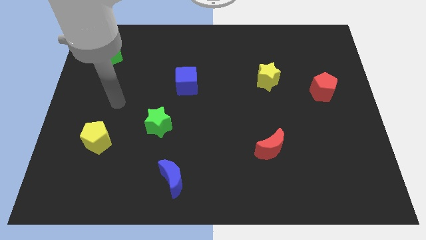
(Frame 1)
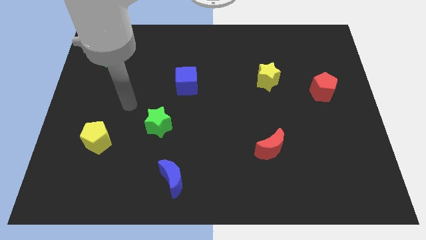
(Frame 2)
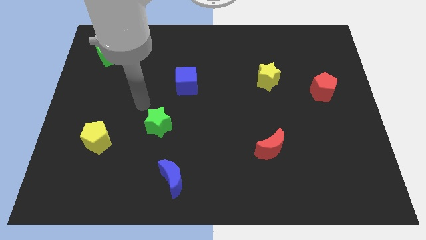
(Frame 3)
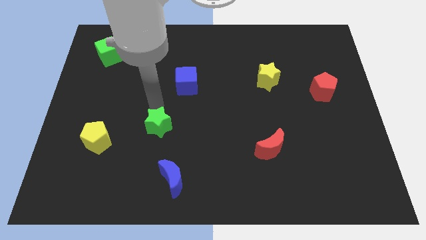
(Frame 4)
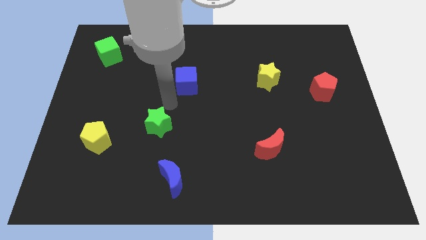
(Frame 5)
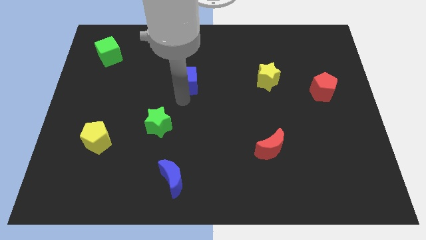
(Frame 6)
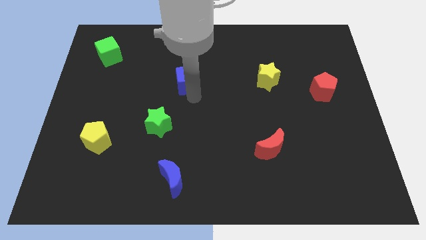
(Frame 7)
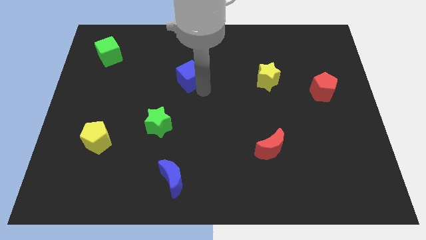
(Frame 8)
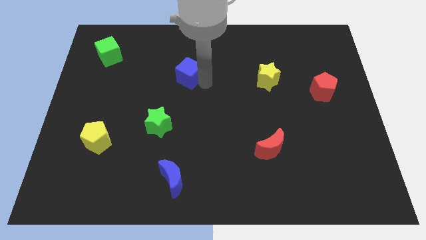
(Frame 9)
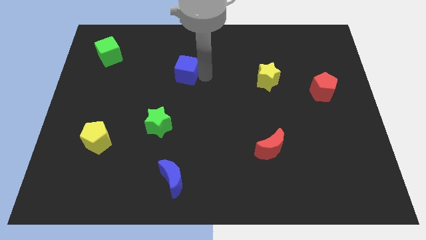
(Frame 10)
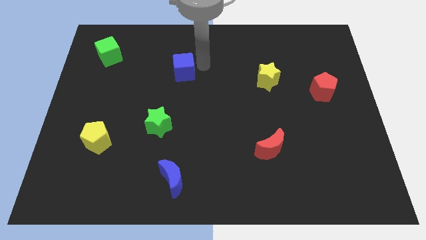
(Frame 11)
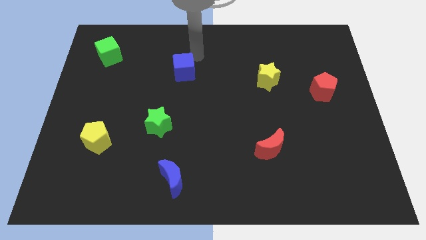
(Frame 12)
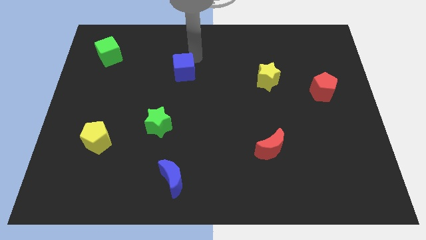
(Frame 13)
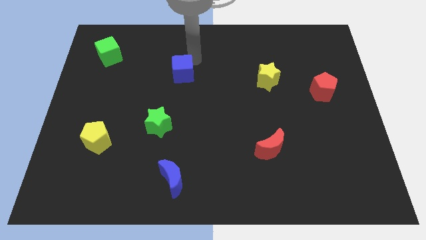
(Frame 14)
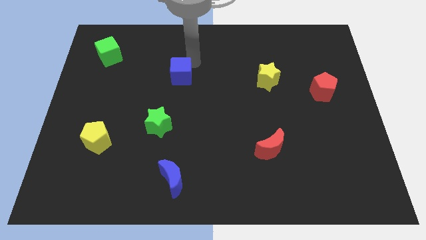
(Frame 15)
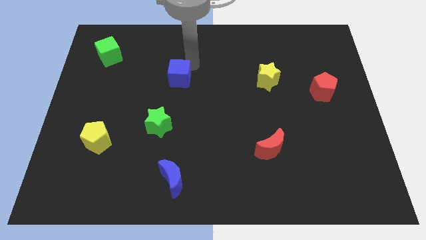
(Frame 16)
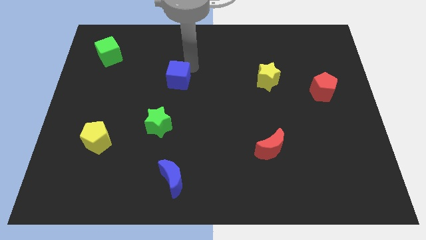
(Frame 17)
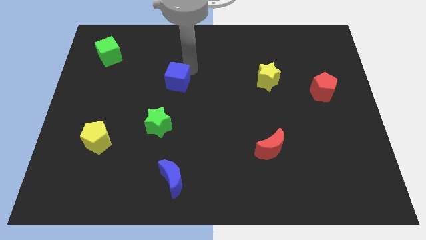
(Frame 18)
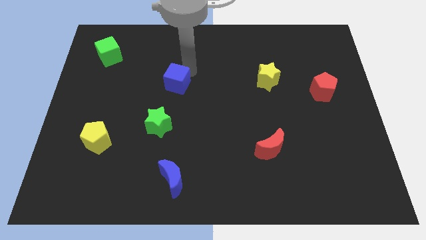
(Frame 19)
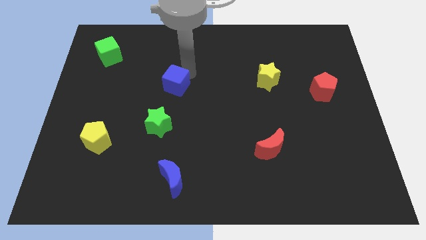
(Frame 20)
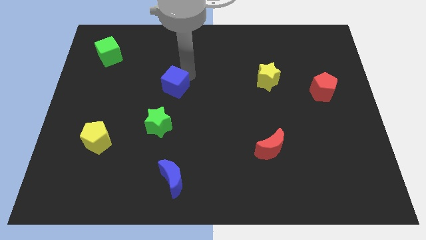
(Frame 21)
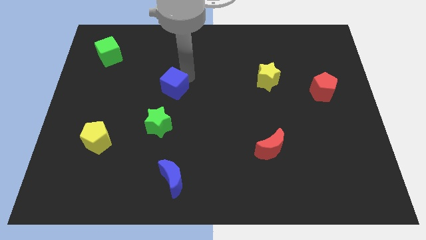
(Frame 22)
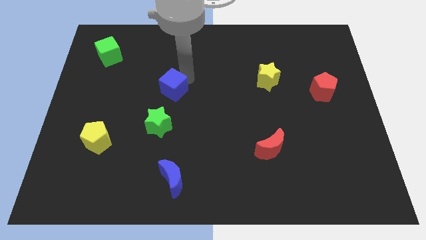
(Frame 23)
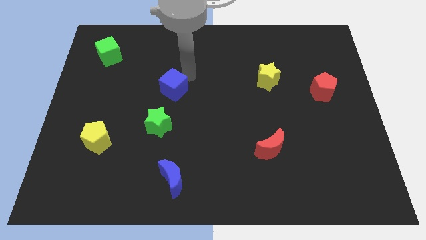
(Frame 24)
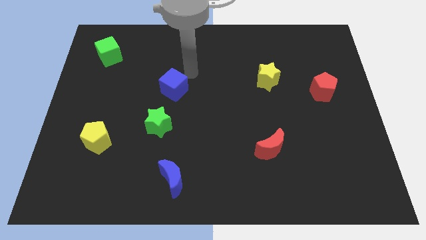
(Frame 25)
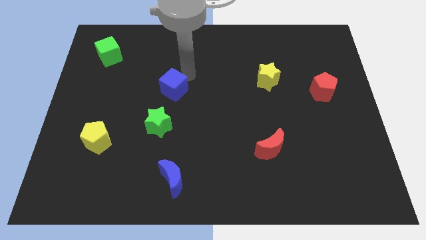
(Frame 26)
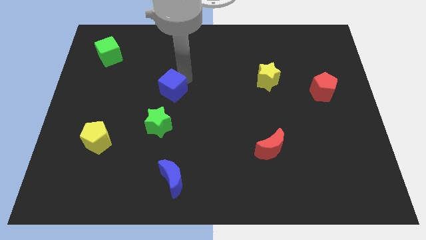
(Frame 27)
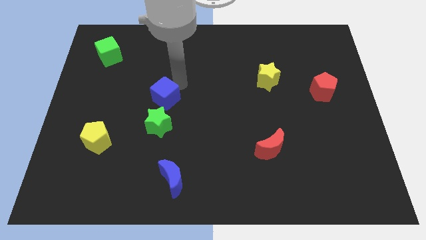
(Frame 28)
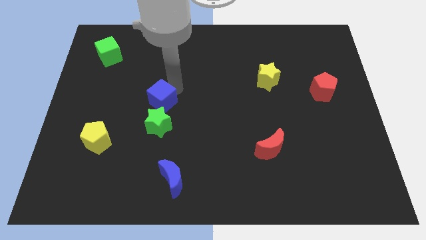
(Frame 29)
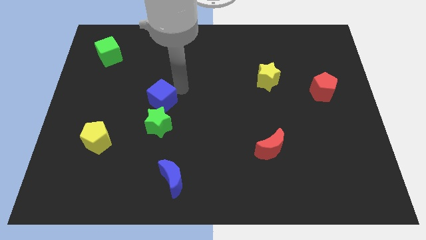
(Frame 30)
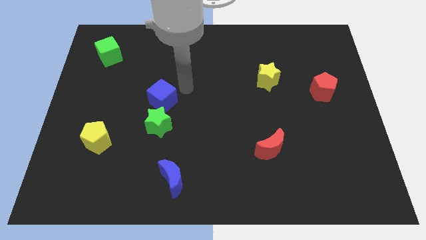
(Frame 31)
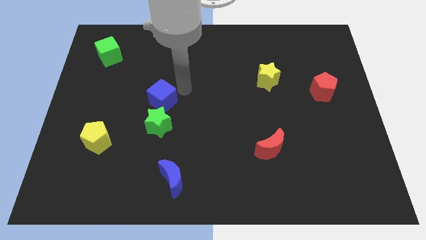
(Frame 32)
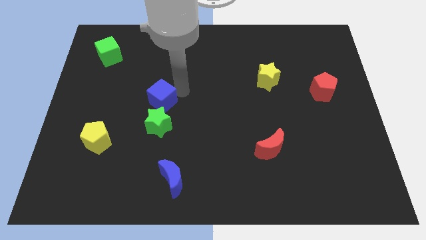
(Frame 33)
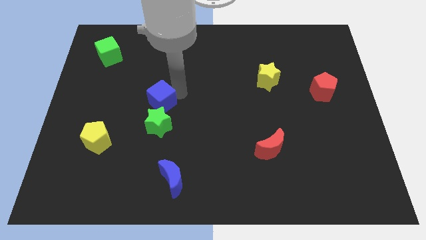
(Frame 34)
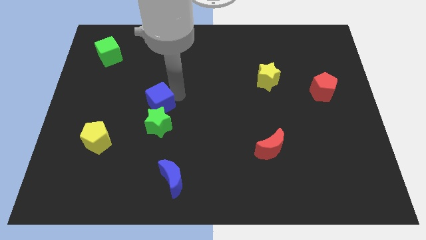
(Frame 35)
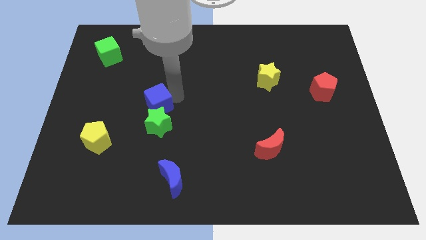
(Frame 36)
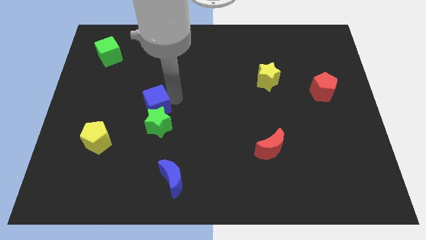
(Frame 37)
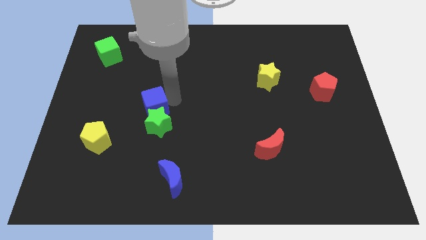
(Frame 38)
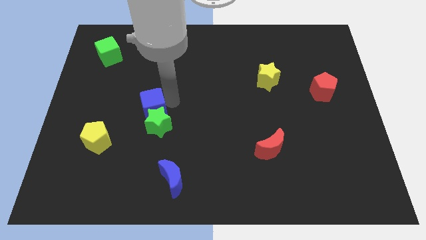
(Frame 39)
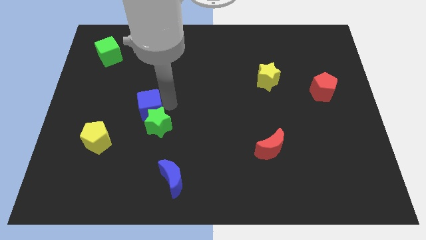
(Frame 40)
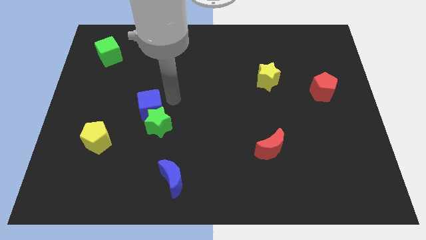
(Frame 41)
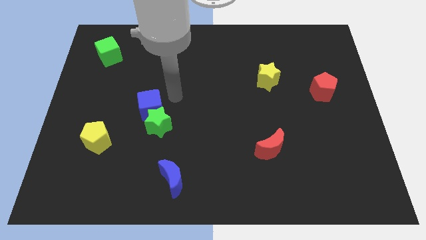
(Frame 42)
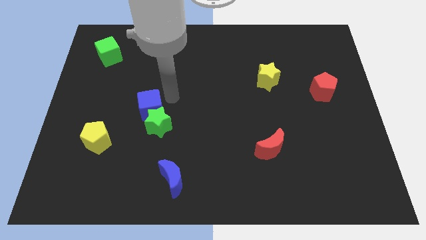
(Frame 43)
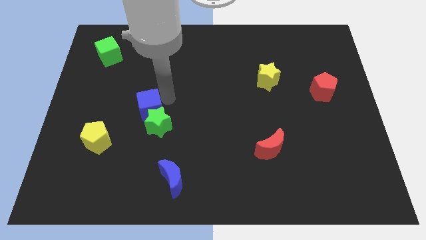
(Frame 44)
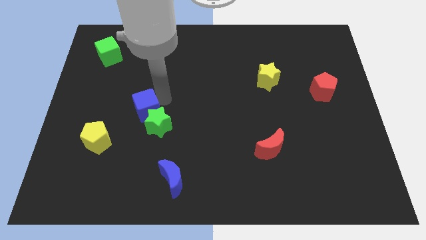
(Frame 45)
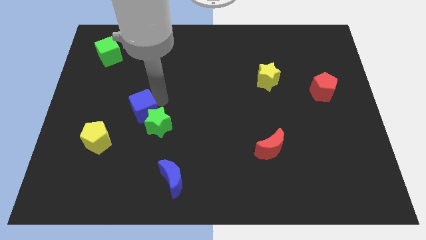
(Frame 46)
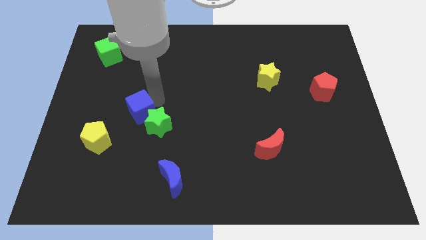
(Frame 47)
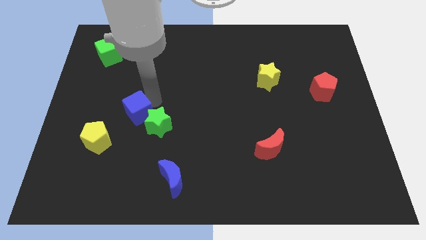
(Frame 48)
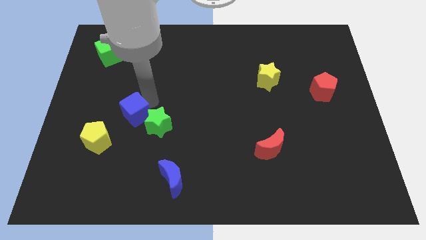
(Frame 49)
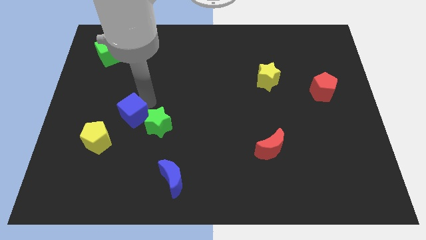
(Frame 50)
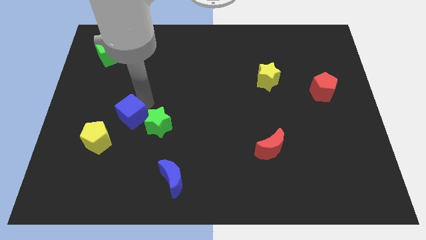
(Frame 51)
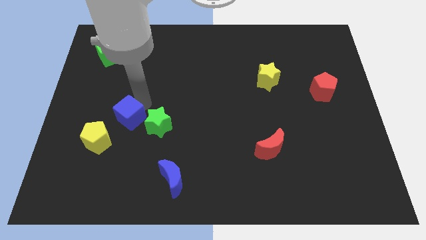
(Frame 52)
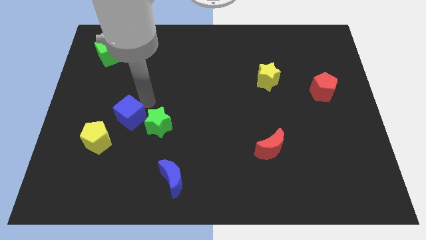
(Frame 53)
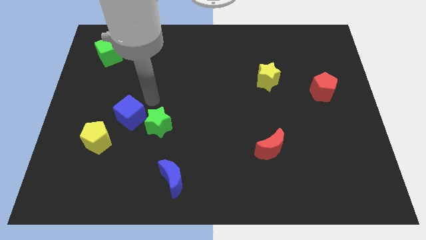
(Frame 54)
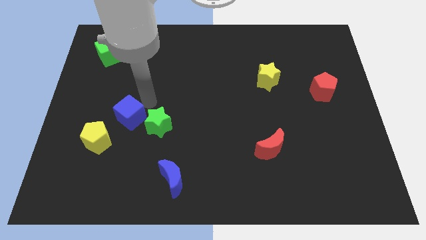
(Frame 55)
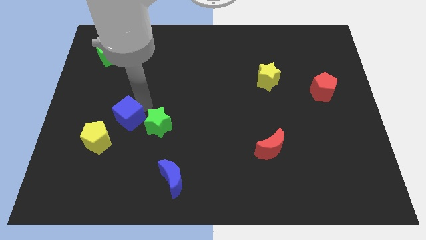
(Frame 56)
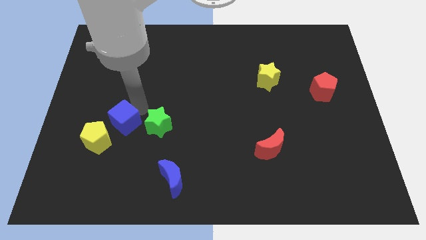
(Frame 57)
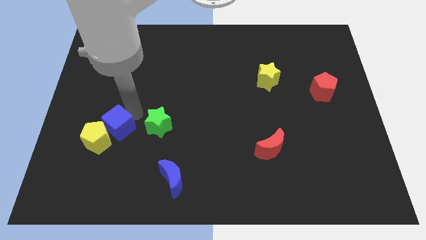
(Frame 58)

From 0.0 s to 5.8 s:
push the blue cube to the yellow pentagon

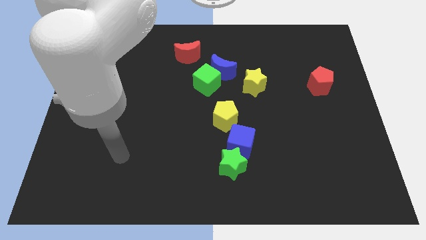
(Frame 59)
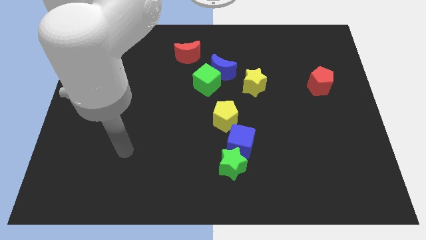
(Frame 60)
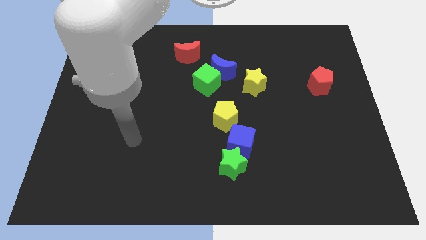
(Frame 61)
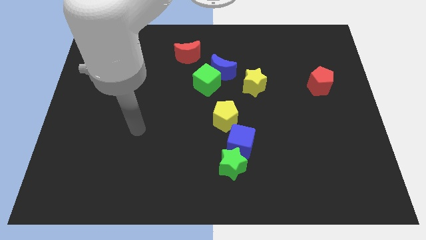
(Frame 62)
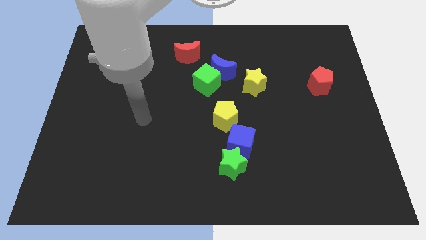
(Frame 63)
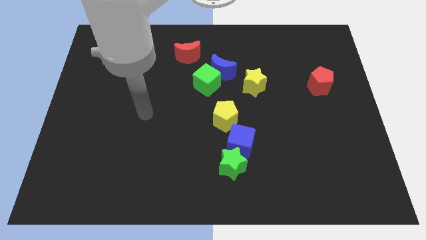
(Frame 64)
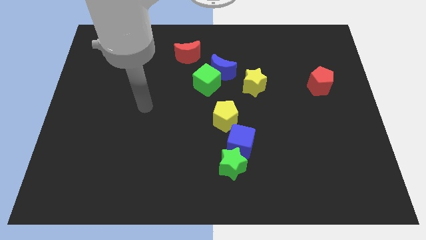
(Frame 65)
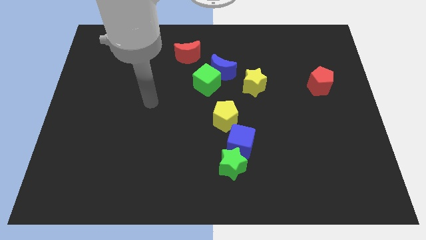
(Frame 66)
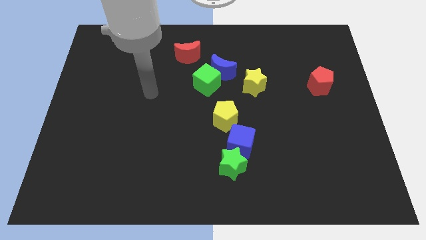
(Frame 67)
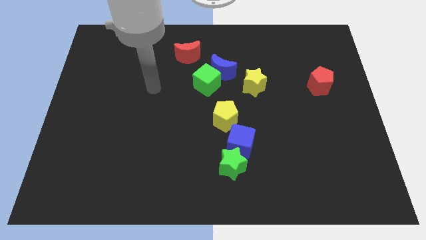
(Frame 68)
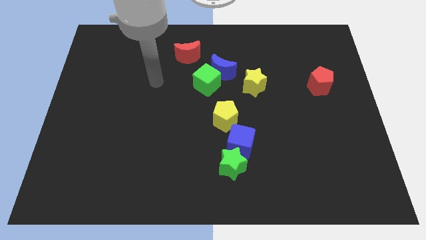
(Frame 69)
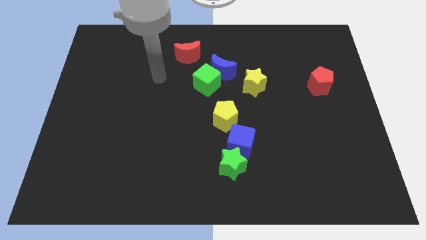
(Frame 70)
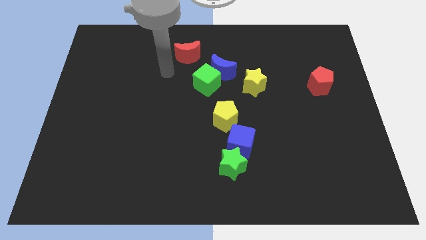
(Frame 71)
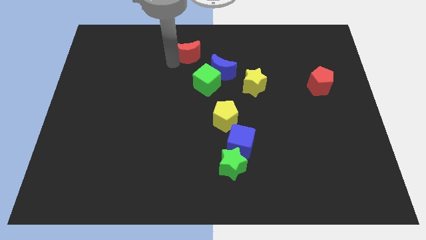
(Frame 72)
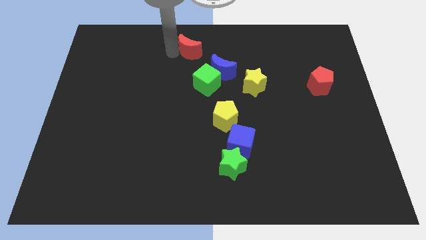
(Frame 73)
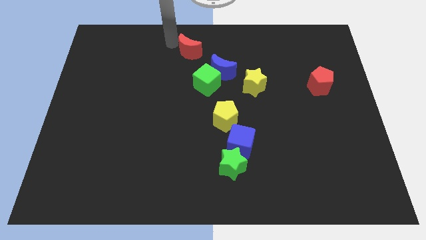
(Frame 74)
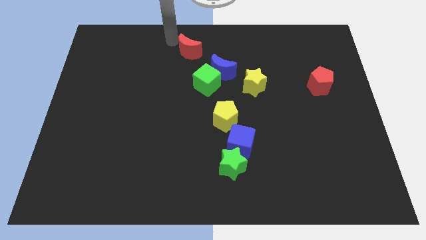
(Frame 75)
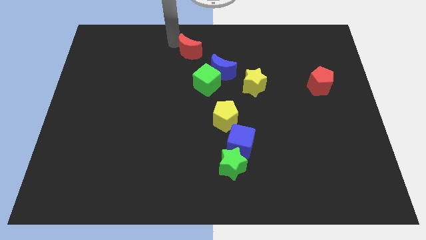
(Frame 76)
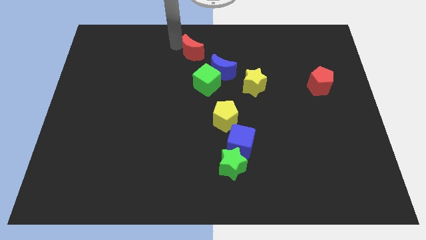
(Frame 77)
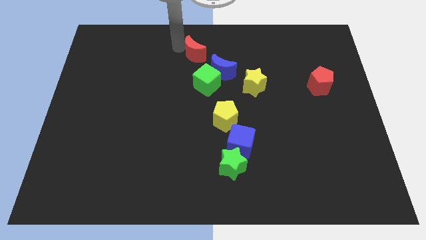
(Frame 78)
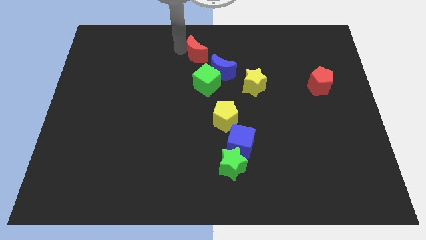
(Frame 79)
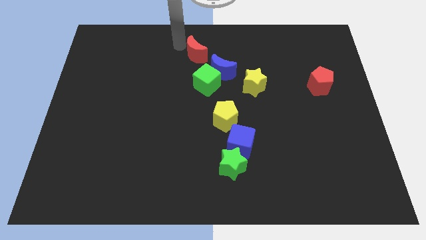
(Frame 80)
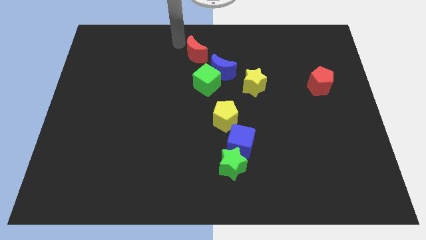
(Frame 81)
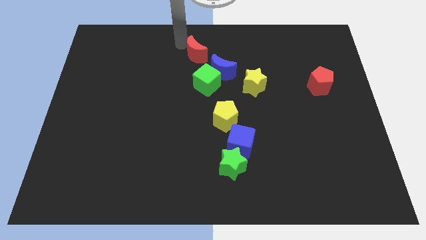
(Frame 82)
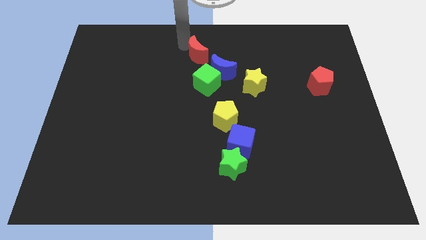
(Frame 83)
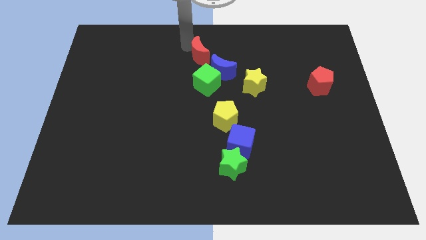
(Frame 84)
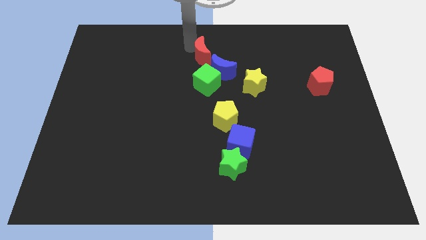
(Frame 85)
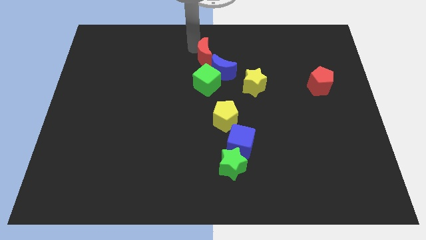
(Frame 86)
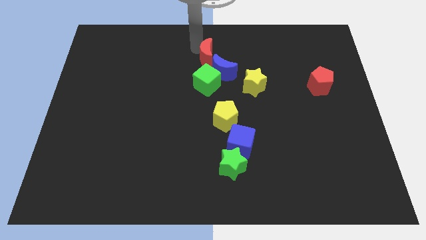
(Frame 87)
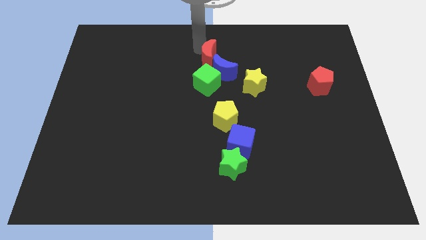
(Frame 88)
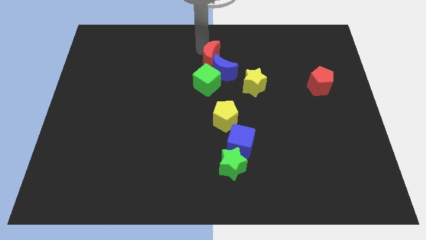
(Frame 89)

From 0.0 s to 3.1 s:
put the red moon close to the blue moon
